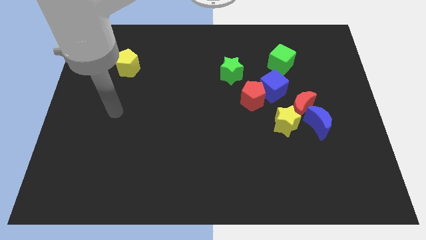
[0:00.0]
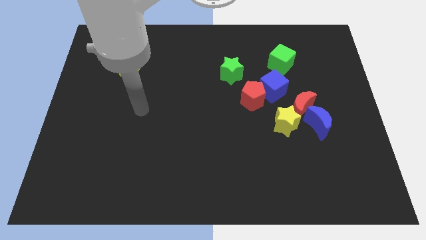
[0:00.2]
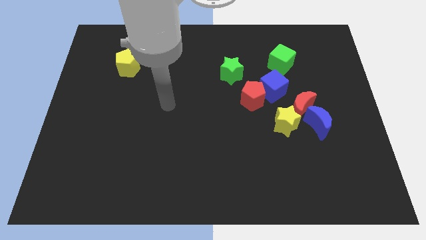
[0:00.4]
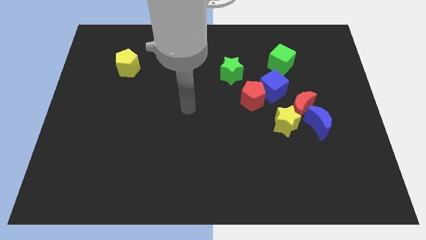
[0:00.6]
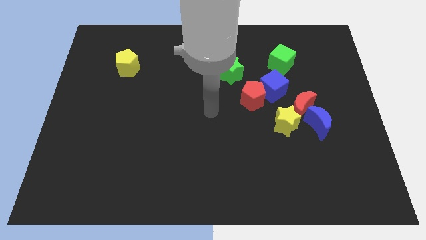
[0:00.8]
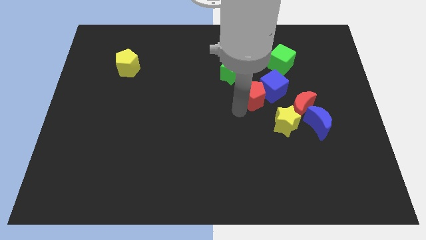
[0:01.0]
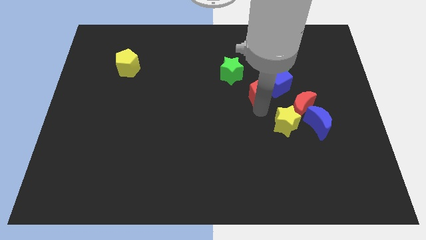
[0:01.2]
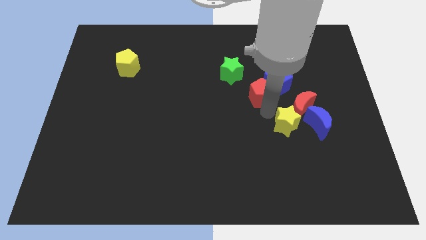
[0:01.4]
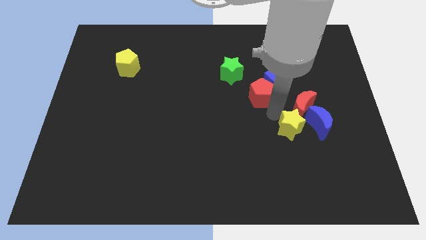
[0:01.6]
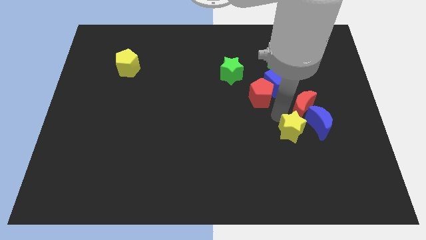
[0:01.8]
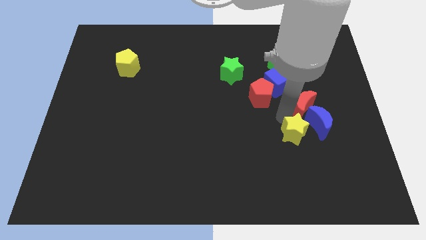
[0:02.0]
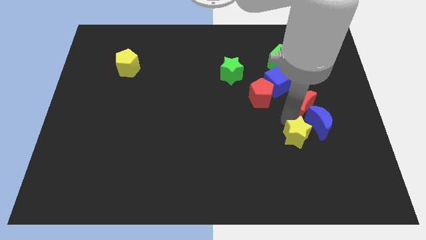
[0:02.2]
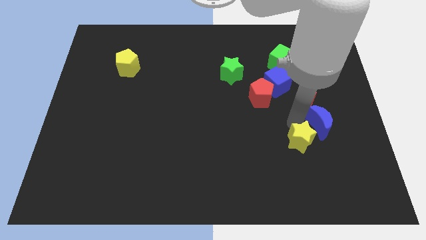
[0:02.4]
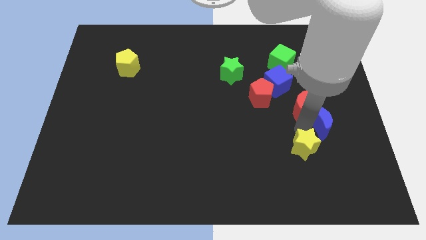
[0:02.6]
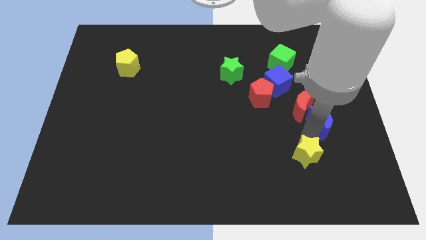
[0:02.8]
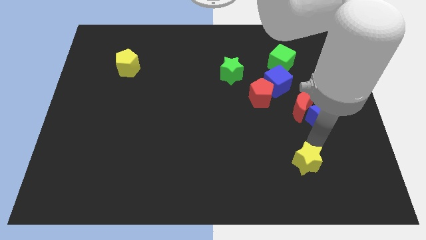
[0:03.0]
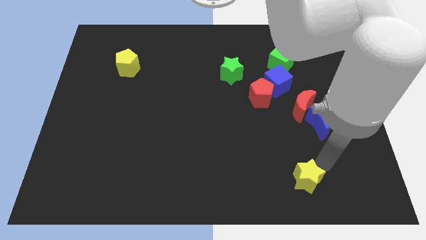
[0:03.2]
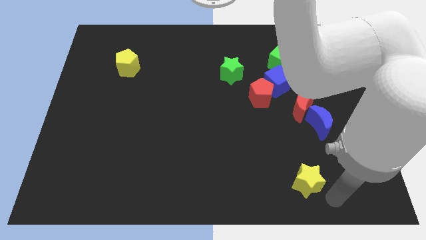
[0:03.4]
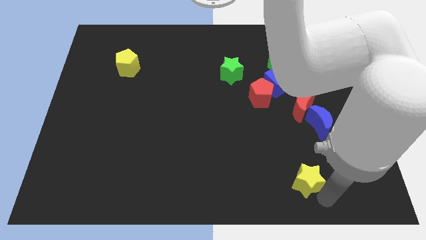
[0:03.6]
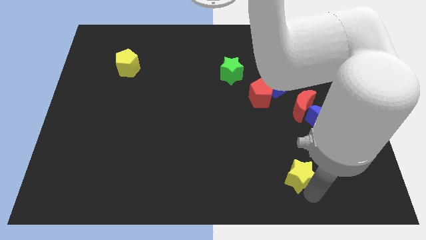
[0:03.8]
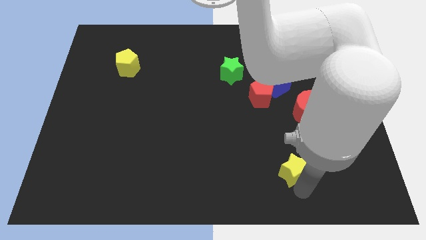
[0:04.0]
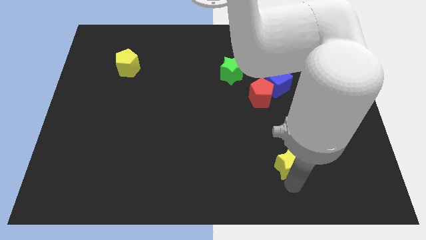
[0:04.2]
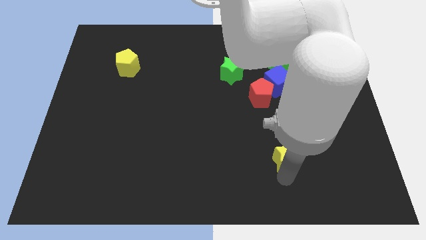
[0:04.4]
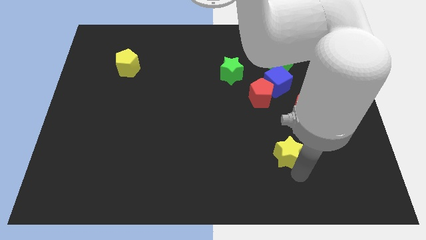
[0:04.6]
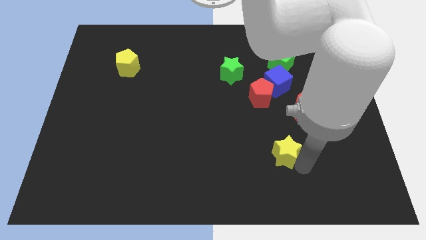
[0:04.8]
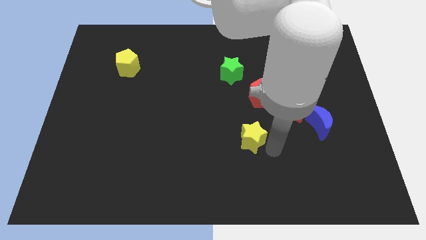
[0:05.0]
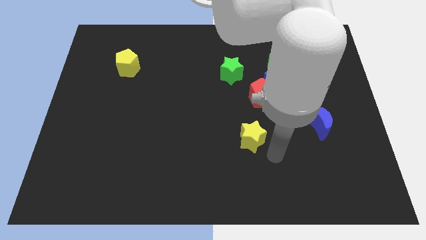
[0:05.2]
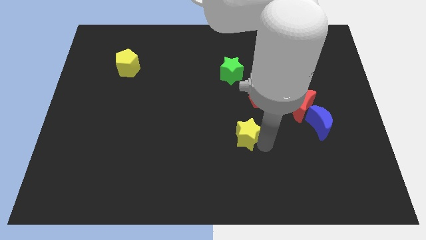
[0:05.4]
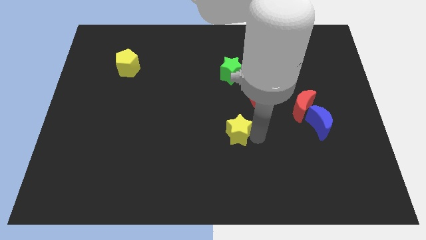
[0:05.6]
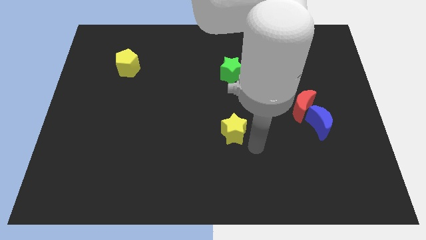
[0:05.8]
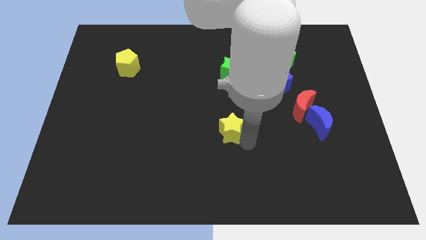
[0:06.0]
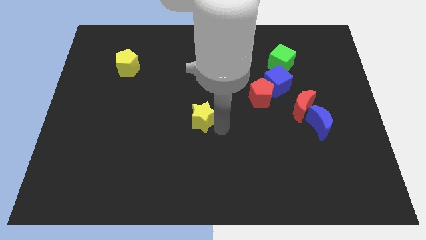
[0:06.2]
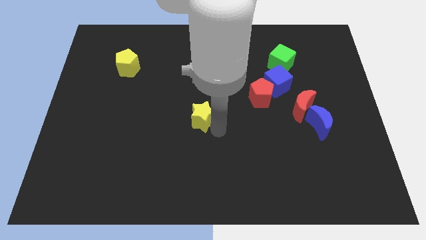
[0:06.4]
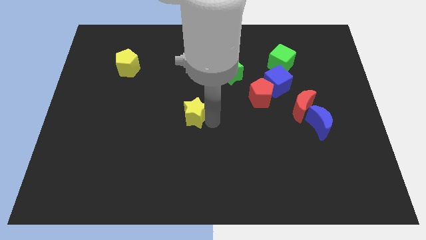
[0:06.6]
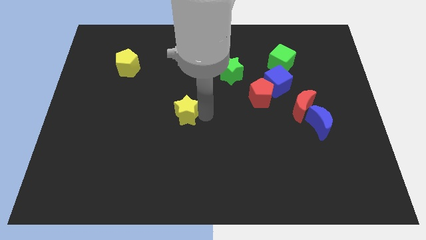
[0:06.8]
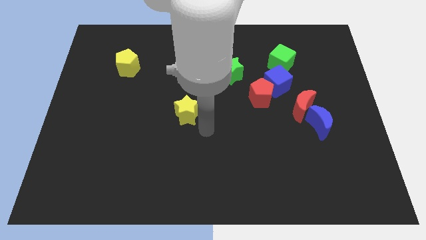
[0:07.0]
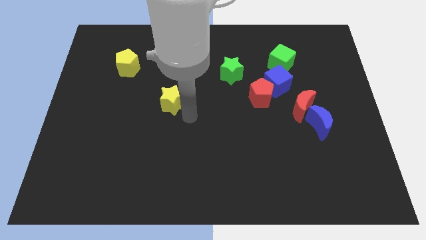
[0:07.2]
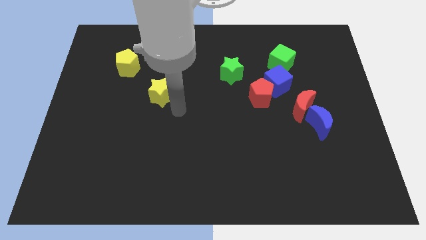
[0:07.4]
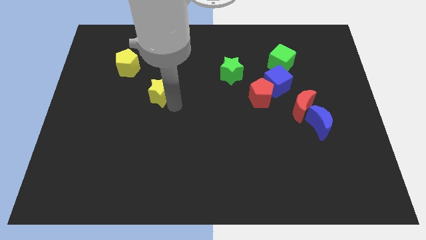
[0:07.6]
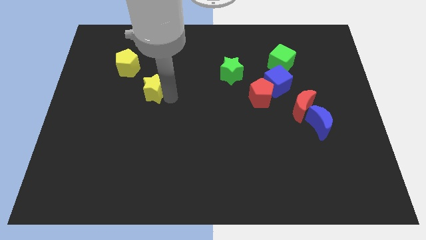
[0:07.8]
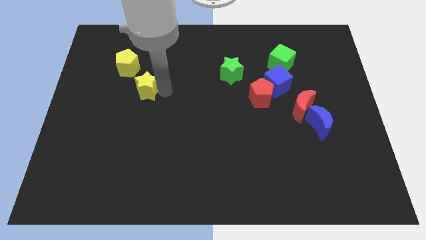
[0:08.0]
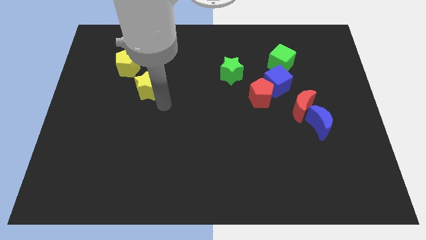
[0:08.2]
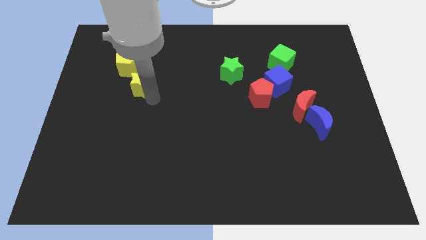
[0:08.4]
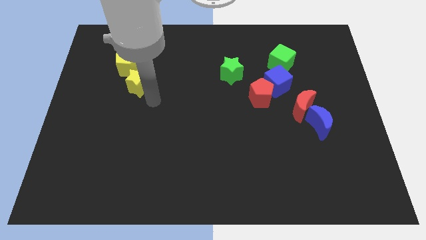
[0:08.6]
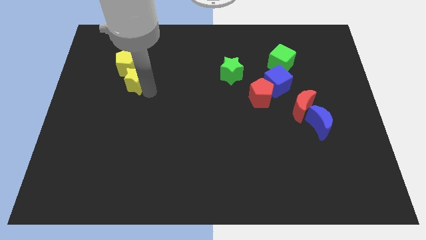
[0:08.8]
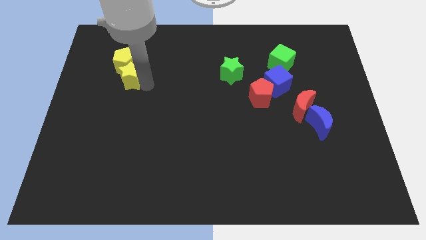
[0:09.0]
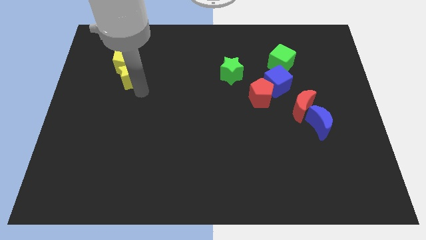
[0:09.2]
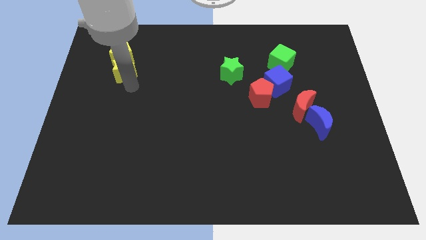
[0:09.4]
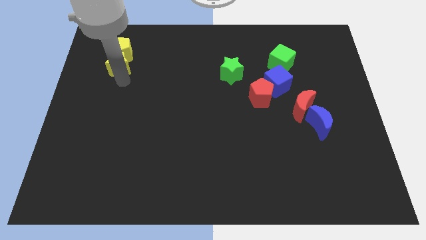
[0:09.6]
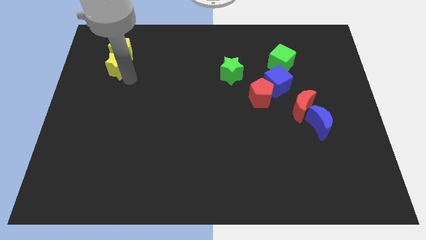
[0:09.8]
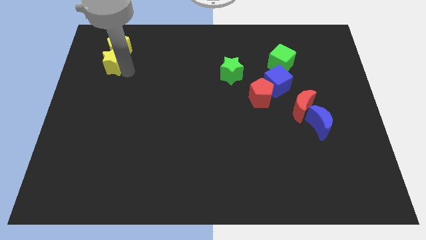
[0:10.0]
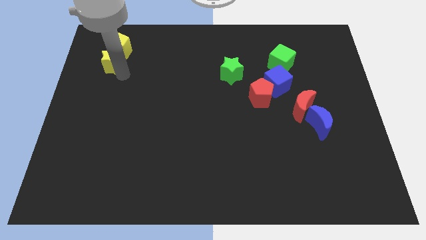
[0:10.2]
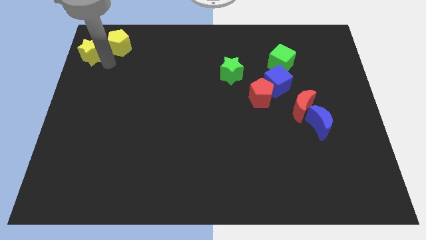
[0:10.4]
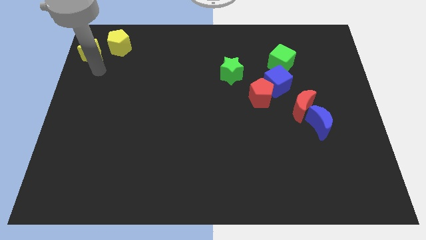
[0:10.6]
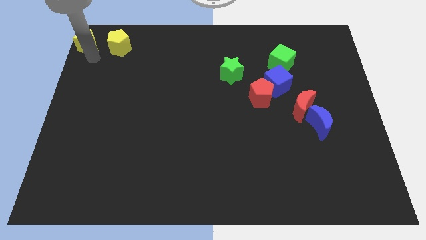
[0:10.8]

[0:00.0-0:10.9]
push the yellow star to the top left of the board

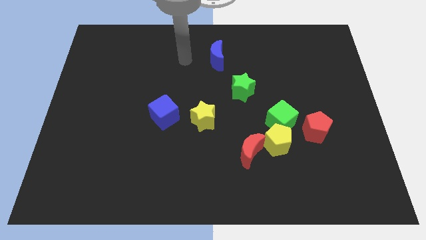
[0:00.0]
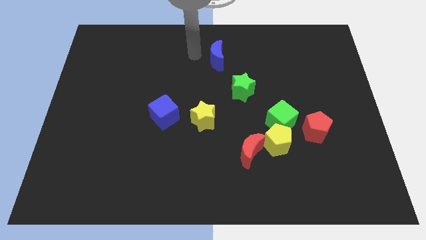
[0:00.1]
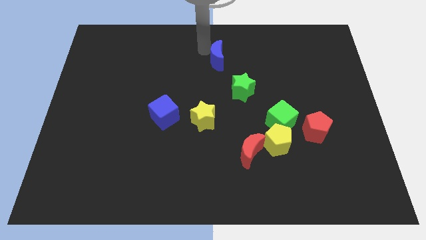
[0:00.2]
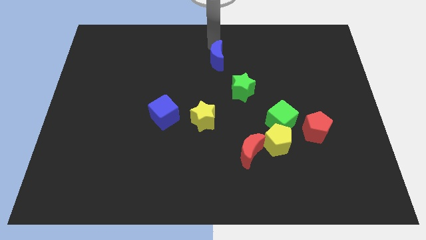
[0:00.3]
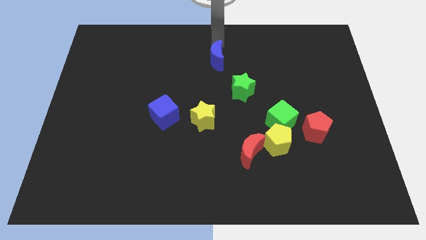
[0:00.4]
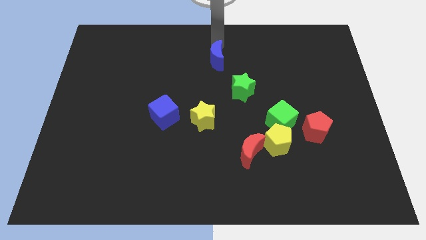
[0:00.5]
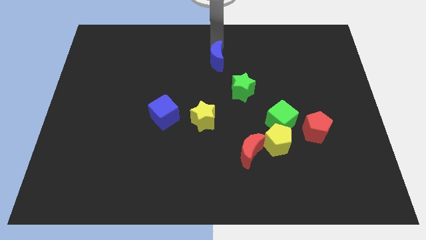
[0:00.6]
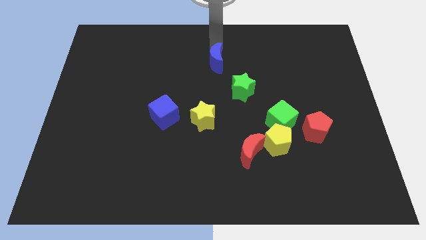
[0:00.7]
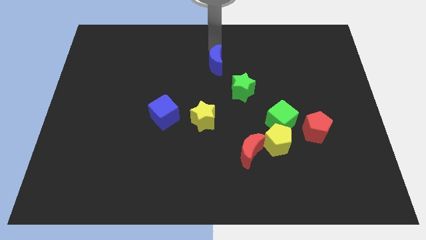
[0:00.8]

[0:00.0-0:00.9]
move the blue moon to the center
